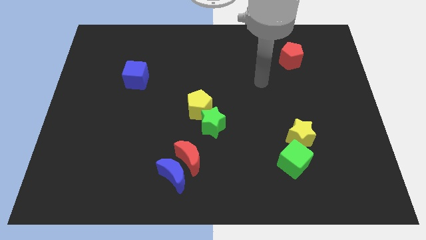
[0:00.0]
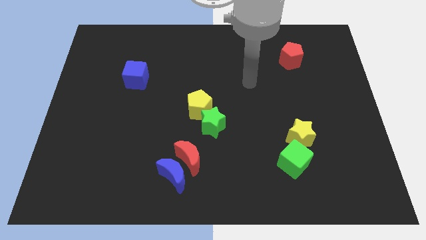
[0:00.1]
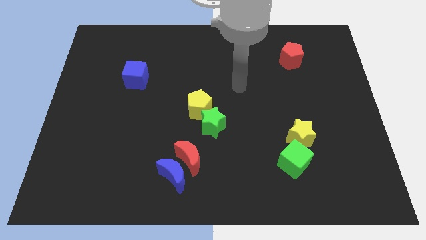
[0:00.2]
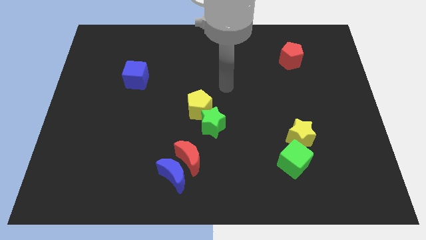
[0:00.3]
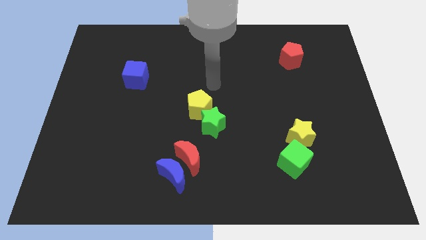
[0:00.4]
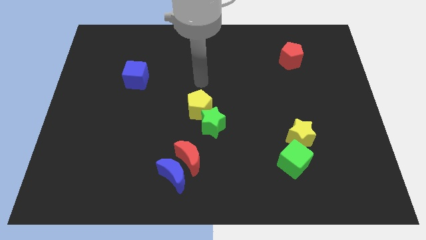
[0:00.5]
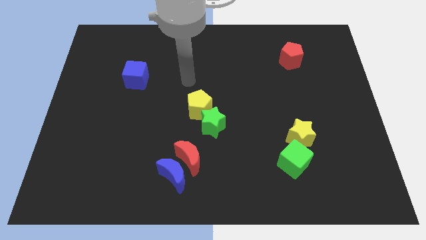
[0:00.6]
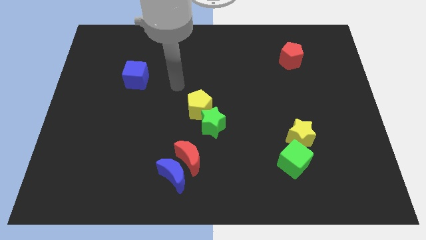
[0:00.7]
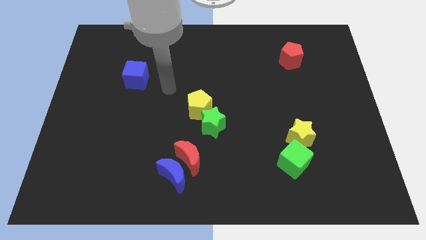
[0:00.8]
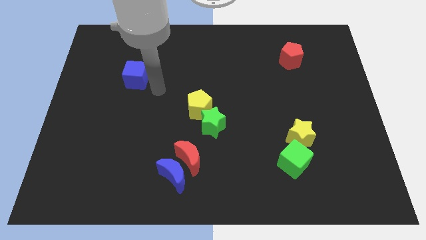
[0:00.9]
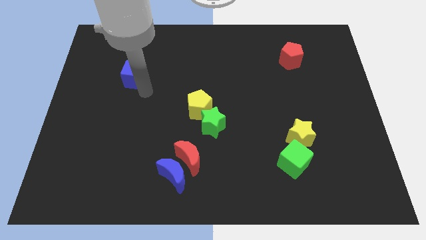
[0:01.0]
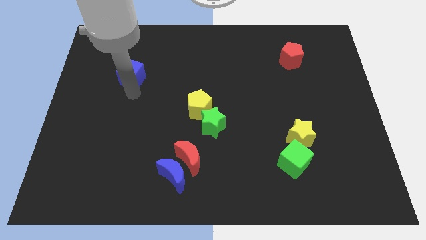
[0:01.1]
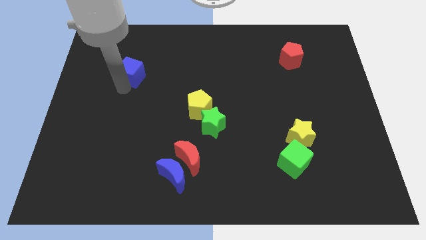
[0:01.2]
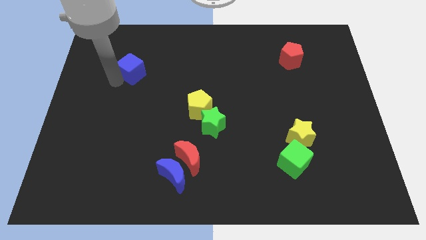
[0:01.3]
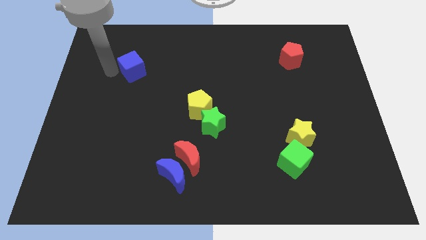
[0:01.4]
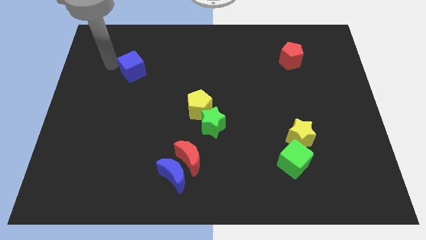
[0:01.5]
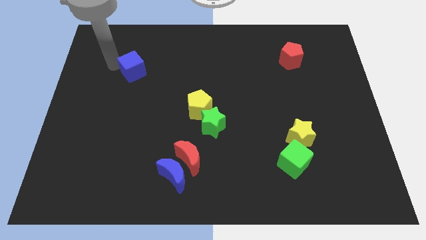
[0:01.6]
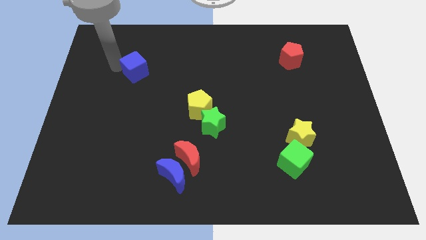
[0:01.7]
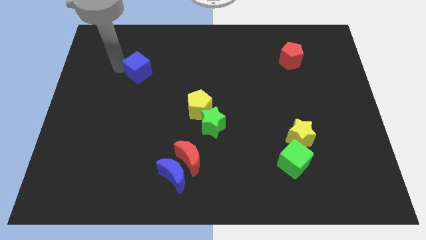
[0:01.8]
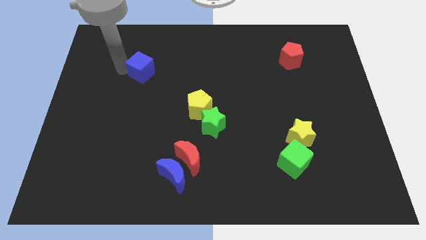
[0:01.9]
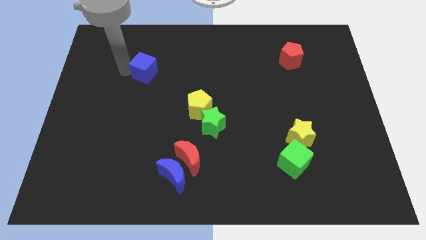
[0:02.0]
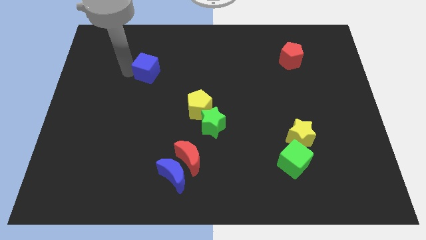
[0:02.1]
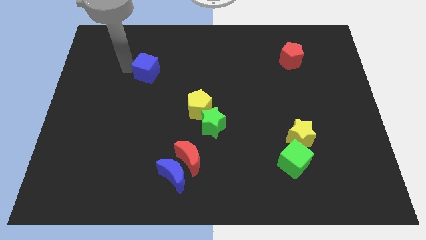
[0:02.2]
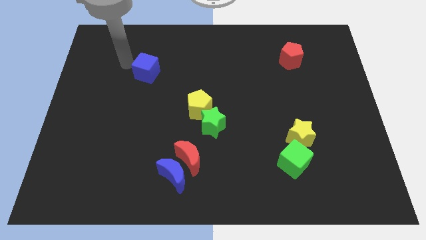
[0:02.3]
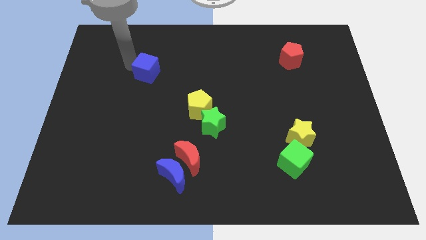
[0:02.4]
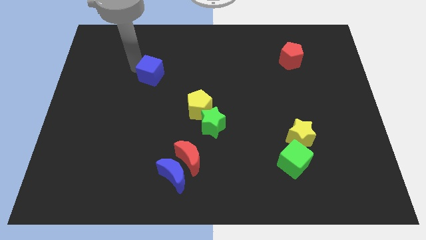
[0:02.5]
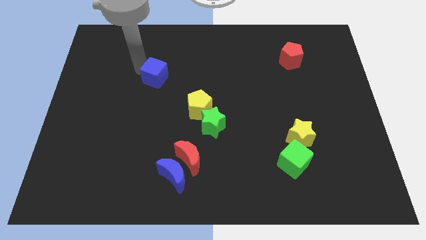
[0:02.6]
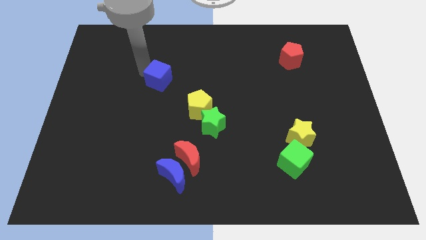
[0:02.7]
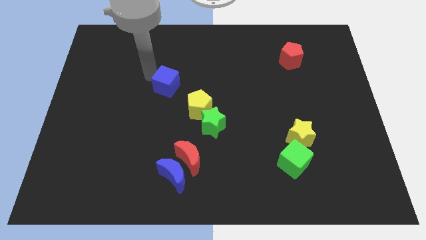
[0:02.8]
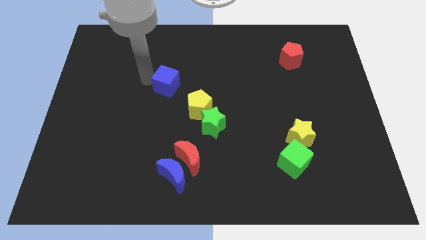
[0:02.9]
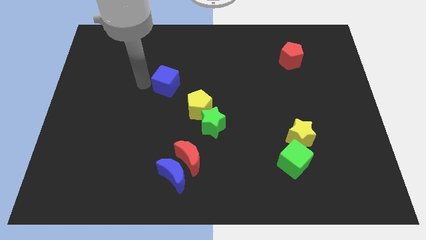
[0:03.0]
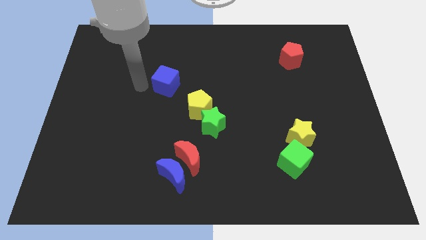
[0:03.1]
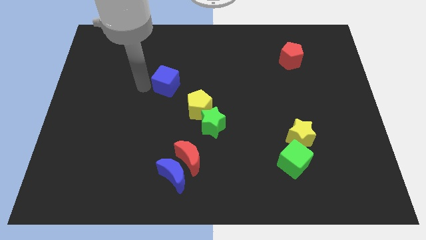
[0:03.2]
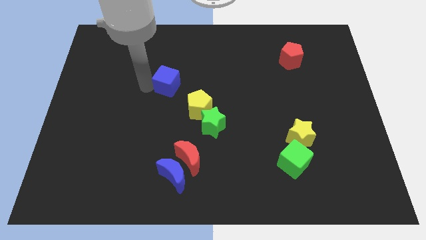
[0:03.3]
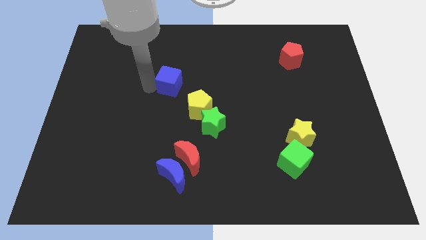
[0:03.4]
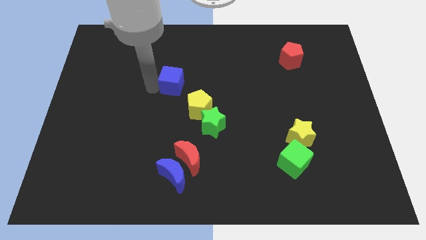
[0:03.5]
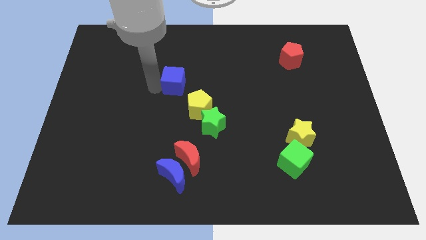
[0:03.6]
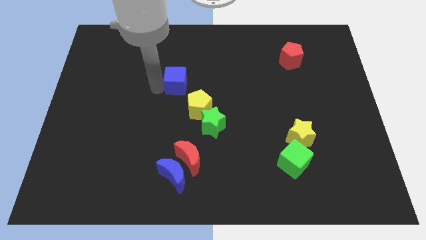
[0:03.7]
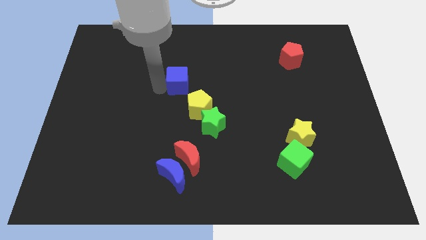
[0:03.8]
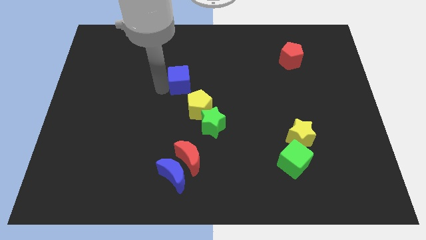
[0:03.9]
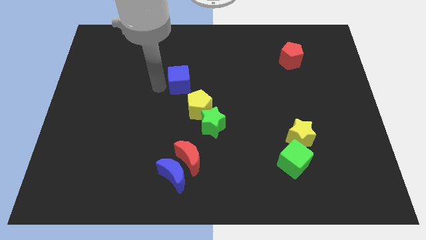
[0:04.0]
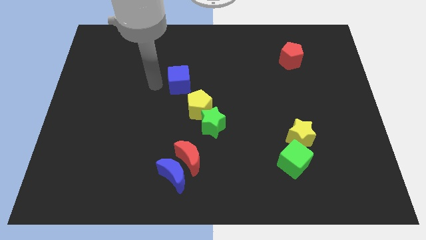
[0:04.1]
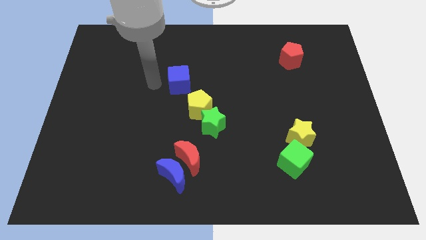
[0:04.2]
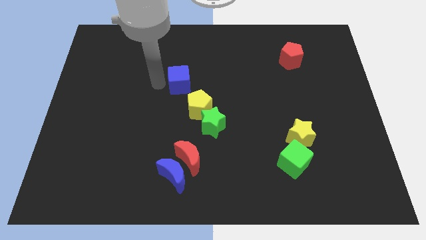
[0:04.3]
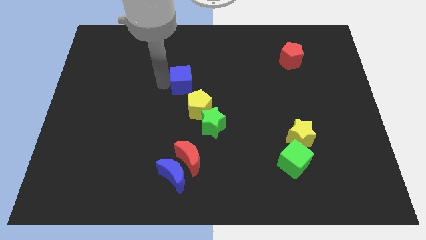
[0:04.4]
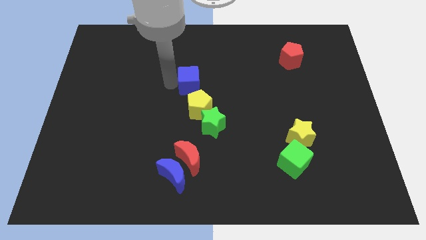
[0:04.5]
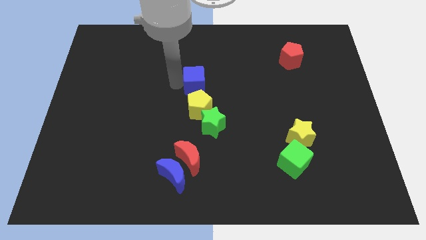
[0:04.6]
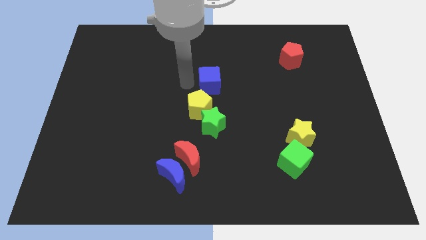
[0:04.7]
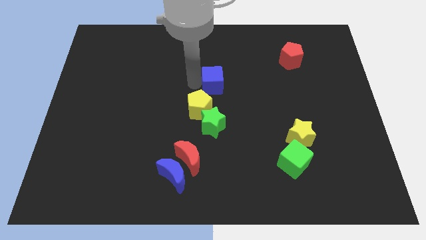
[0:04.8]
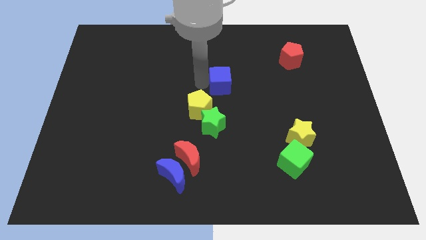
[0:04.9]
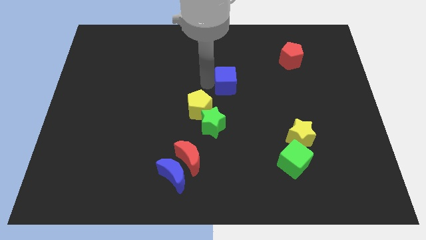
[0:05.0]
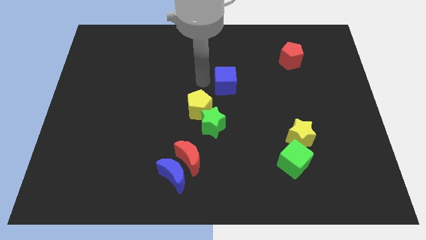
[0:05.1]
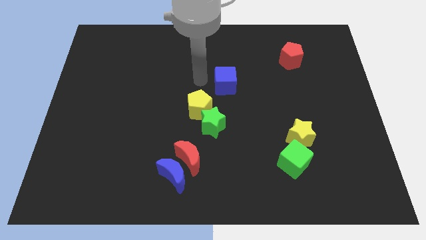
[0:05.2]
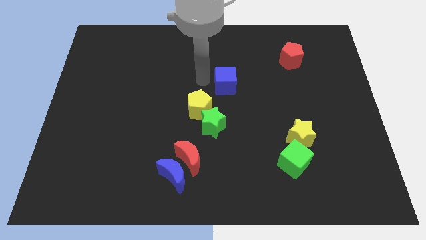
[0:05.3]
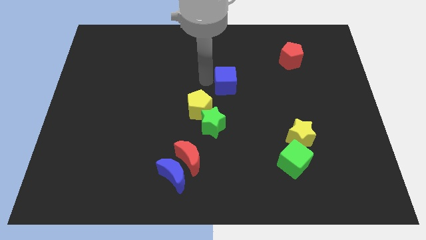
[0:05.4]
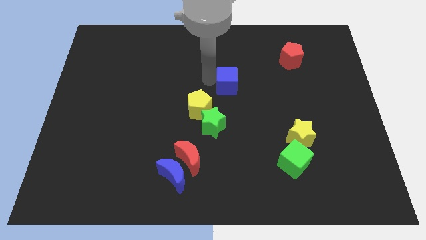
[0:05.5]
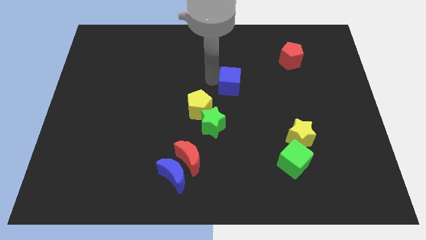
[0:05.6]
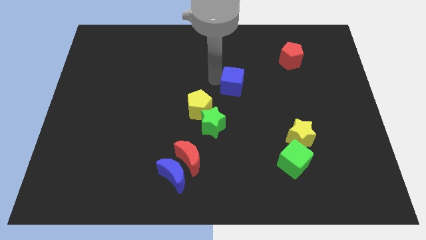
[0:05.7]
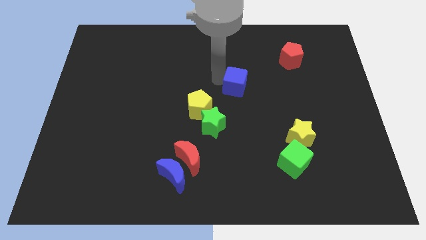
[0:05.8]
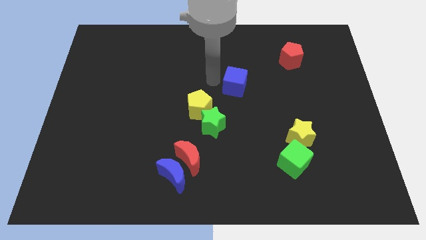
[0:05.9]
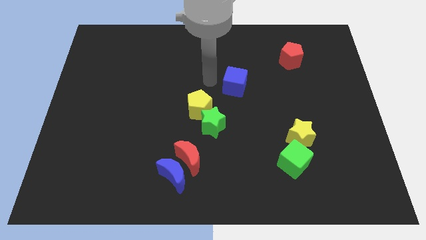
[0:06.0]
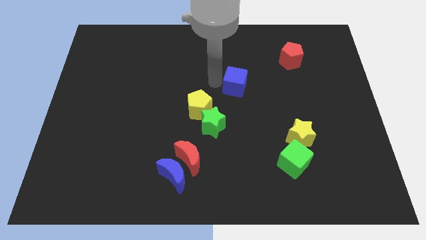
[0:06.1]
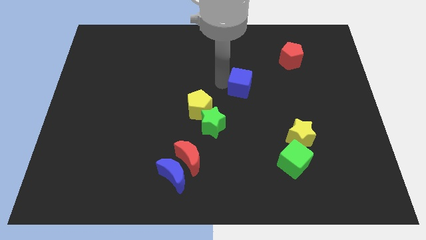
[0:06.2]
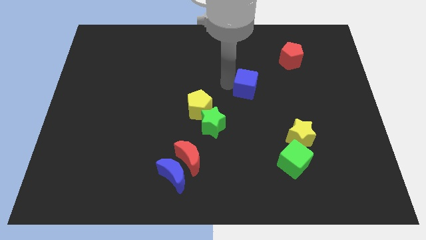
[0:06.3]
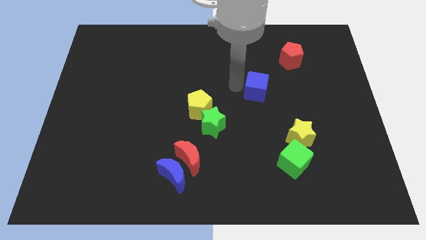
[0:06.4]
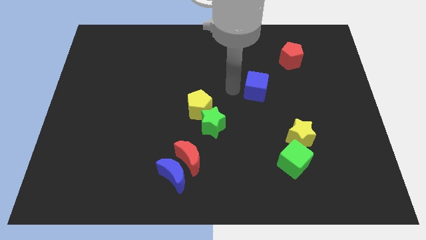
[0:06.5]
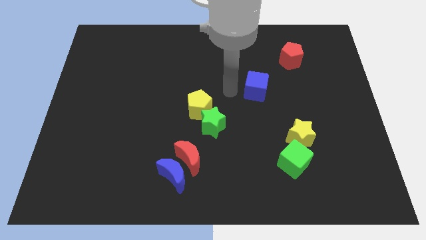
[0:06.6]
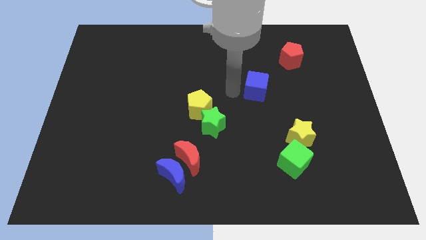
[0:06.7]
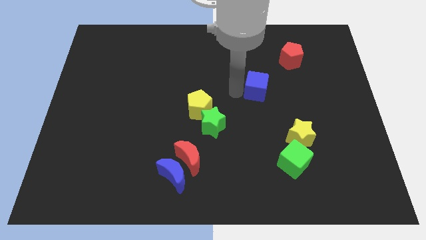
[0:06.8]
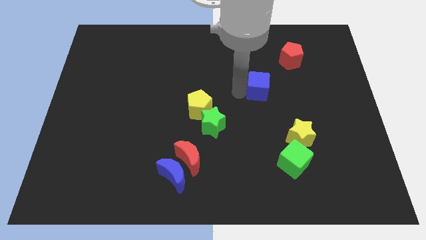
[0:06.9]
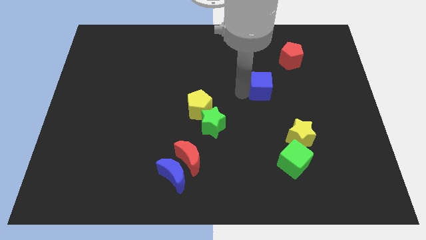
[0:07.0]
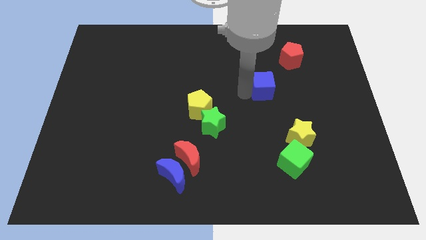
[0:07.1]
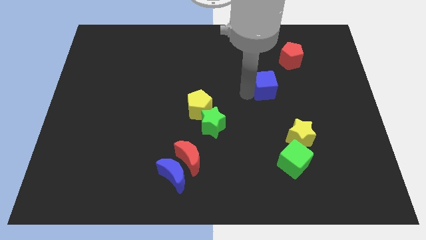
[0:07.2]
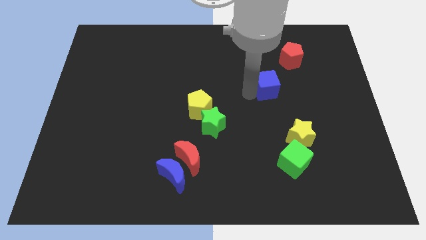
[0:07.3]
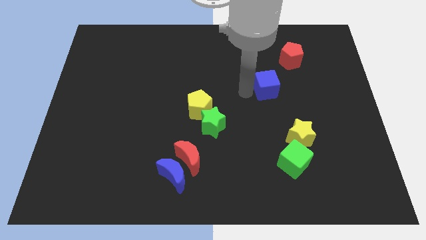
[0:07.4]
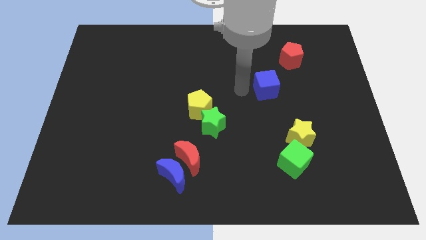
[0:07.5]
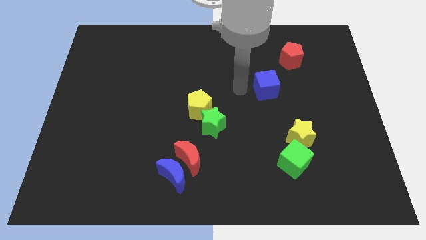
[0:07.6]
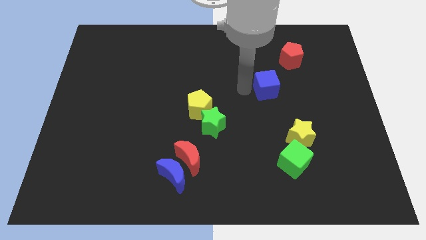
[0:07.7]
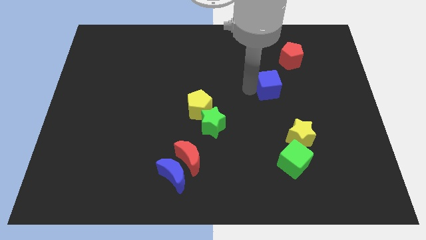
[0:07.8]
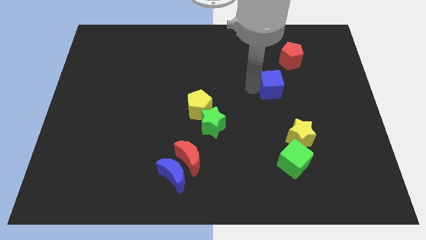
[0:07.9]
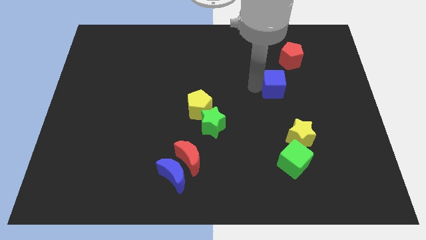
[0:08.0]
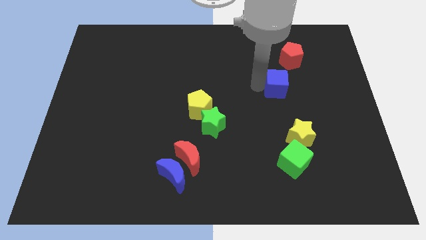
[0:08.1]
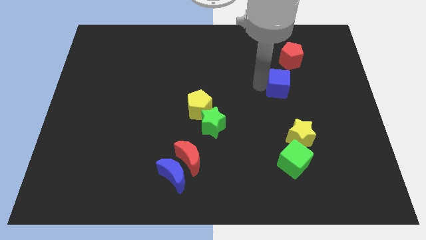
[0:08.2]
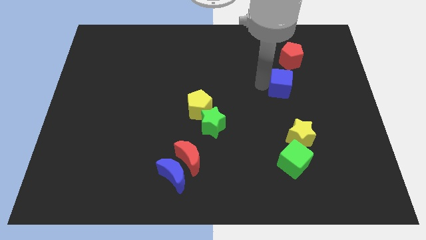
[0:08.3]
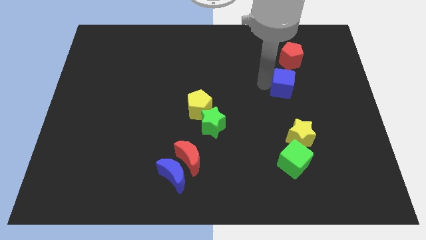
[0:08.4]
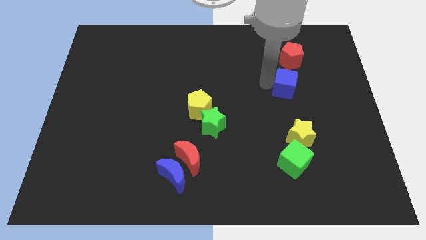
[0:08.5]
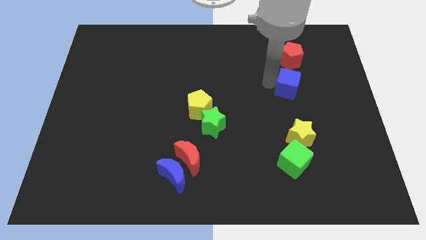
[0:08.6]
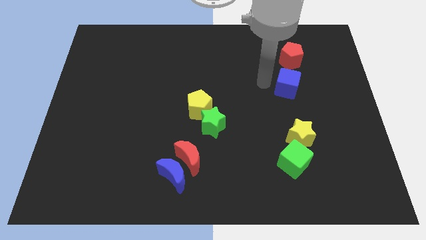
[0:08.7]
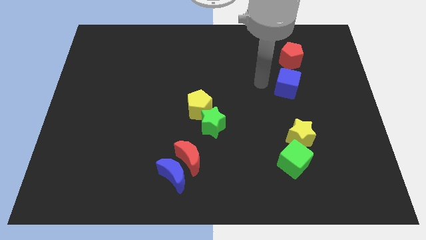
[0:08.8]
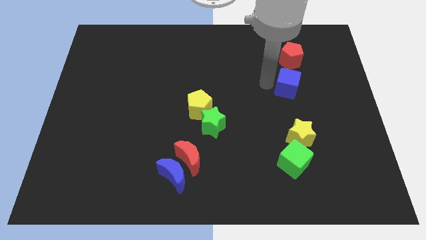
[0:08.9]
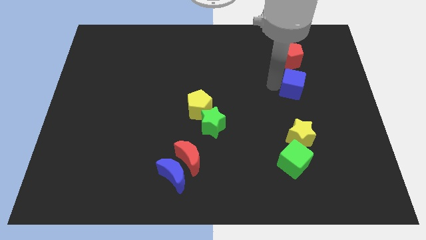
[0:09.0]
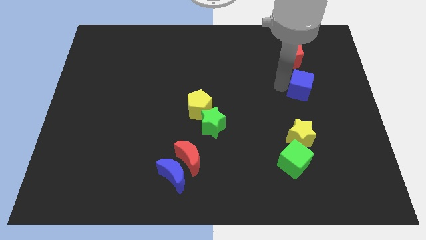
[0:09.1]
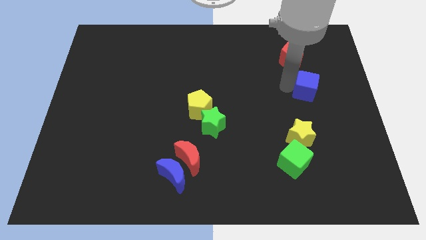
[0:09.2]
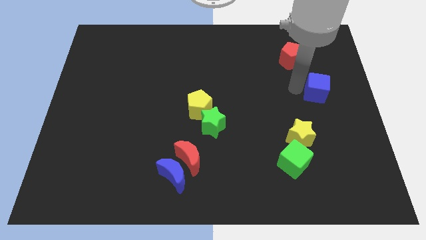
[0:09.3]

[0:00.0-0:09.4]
slide the blue cube to the center right
